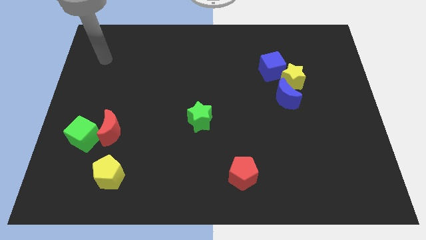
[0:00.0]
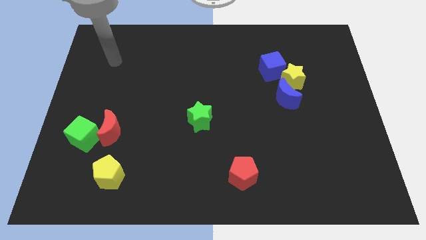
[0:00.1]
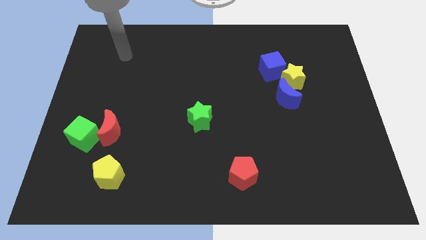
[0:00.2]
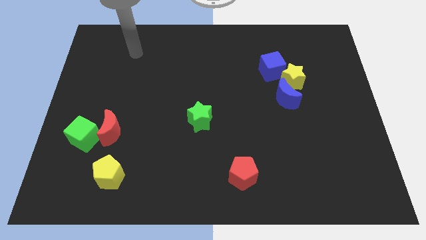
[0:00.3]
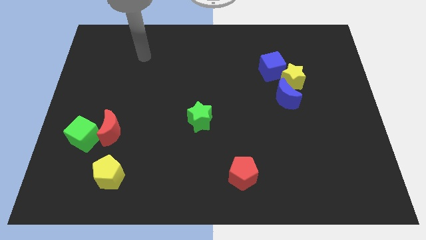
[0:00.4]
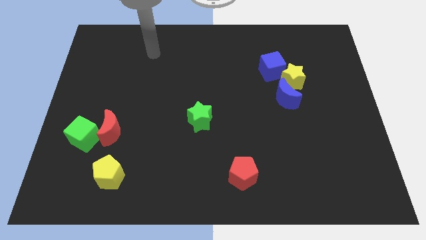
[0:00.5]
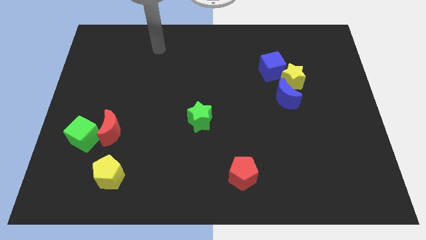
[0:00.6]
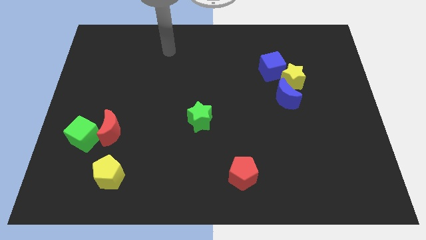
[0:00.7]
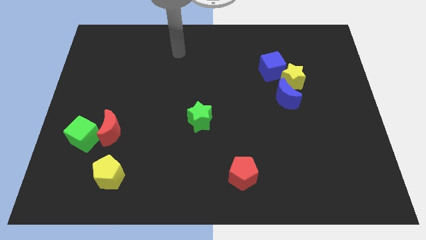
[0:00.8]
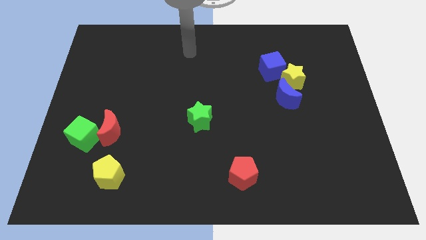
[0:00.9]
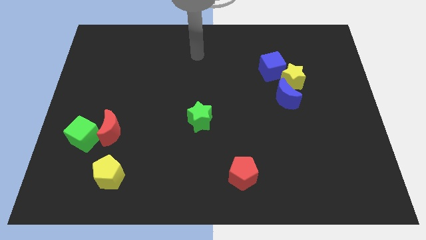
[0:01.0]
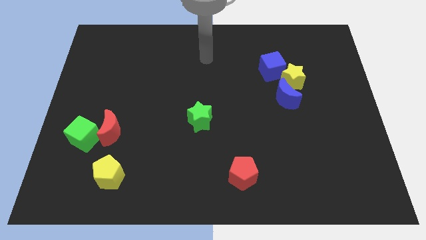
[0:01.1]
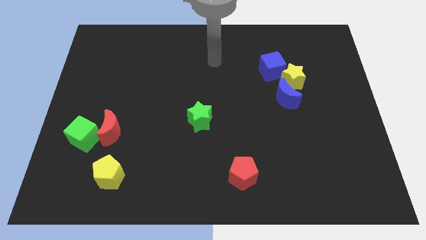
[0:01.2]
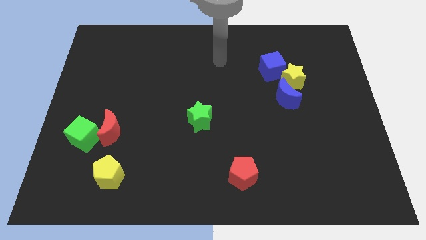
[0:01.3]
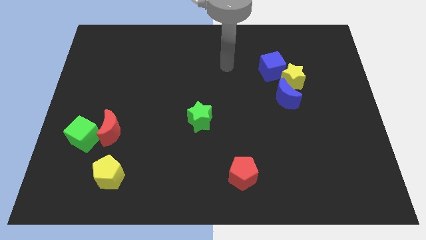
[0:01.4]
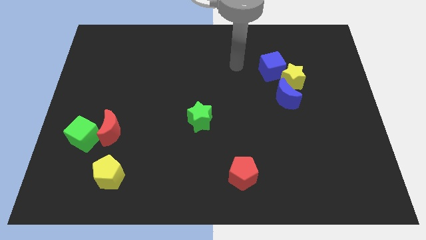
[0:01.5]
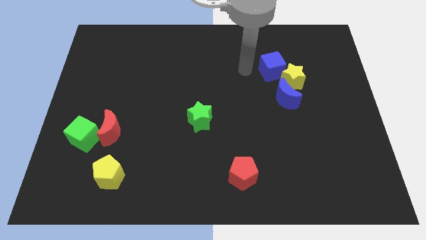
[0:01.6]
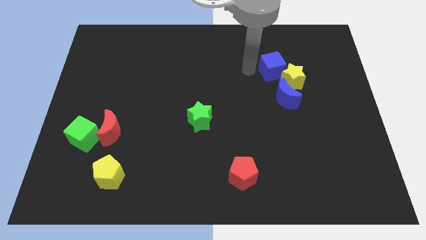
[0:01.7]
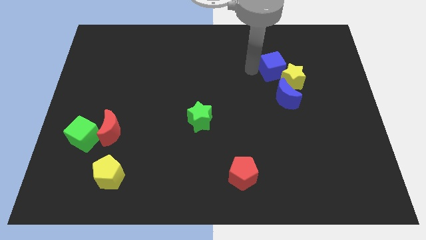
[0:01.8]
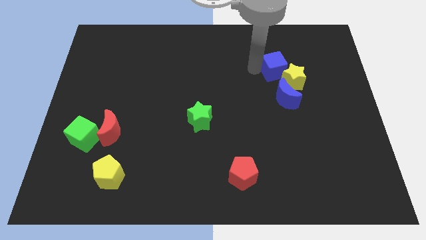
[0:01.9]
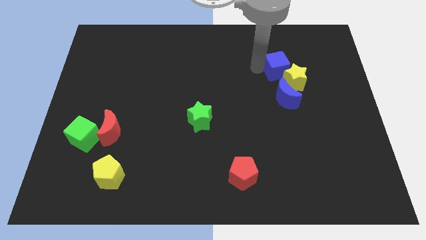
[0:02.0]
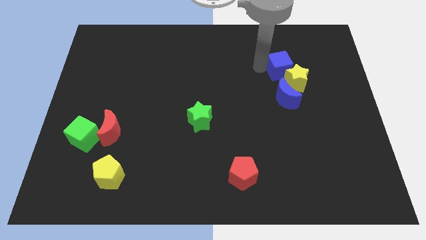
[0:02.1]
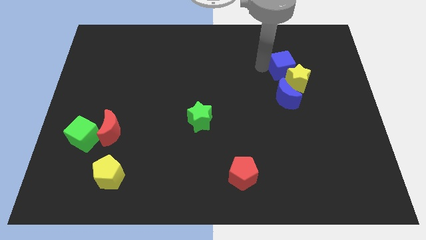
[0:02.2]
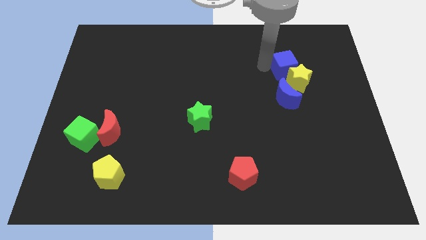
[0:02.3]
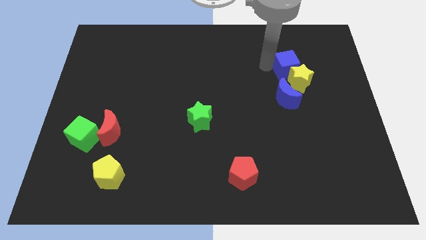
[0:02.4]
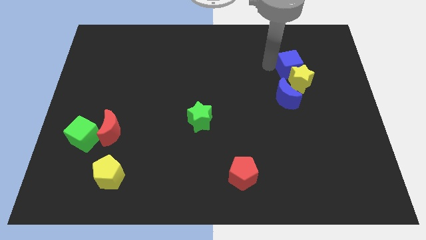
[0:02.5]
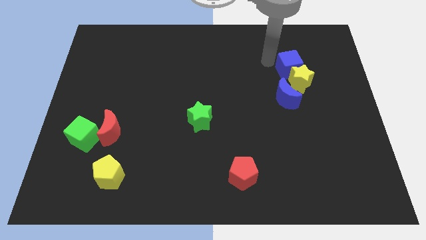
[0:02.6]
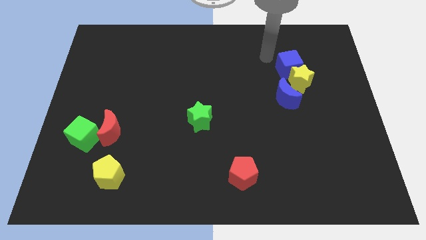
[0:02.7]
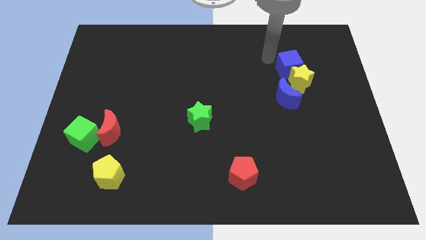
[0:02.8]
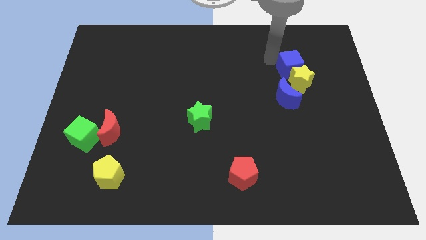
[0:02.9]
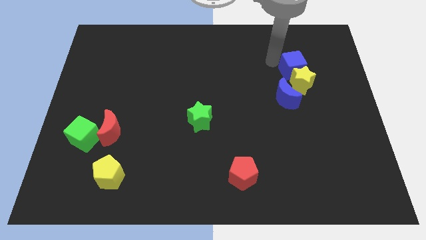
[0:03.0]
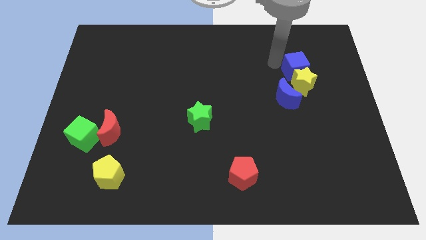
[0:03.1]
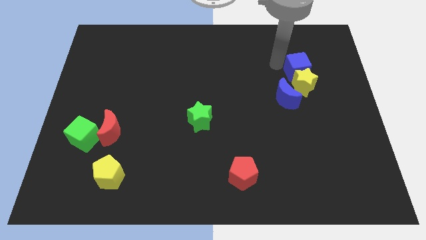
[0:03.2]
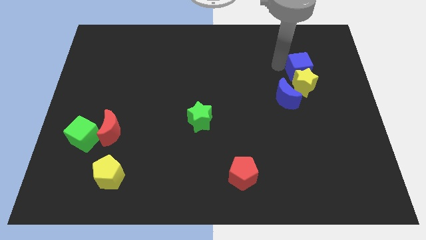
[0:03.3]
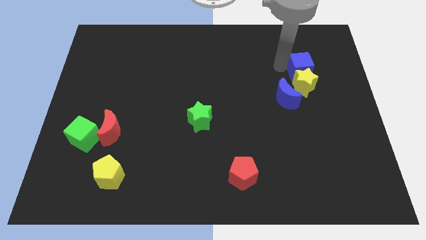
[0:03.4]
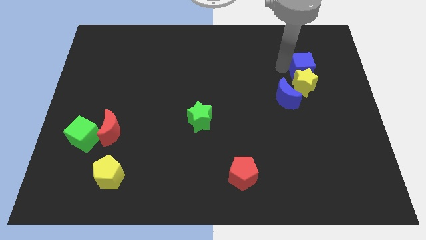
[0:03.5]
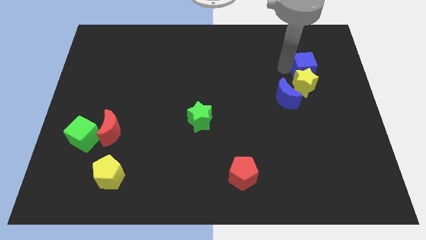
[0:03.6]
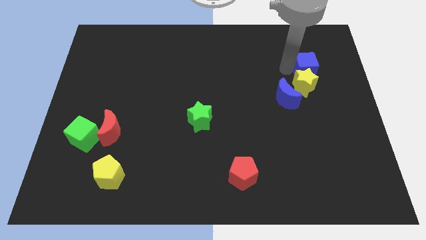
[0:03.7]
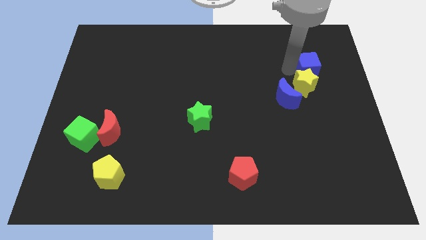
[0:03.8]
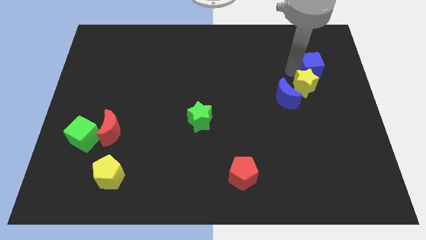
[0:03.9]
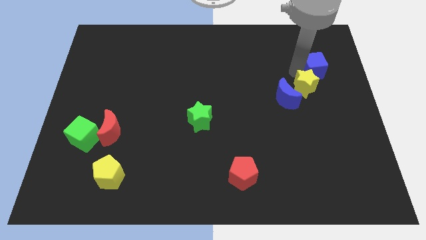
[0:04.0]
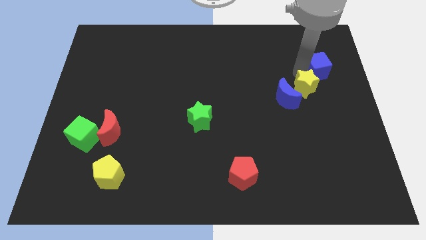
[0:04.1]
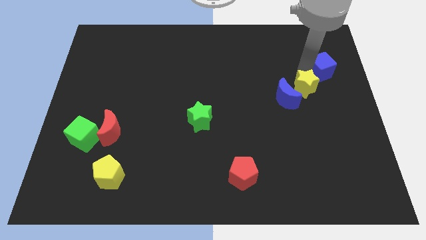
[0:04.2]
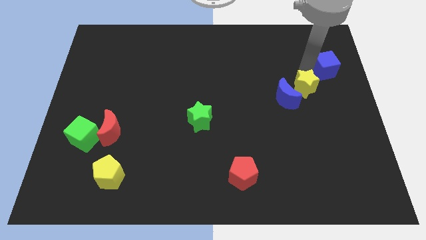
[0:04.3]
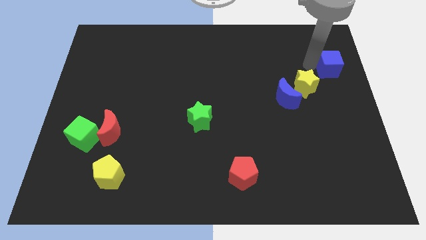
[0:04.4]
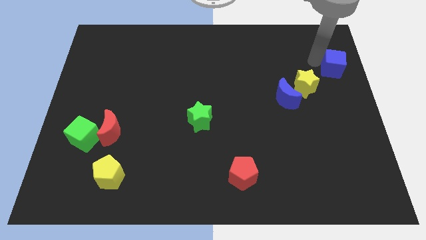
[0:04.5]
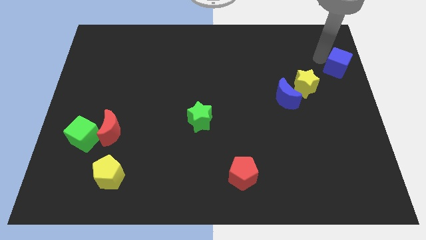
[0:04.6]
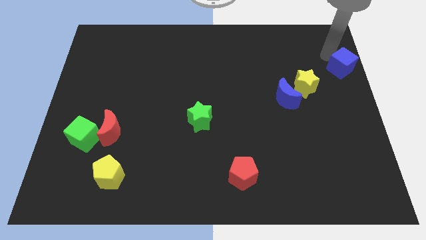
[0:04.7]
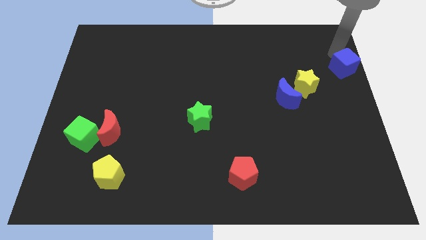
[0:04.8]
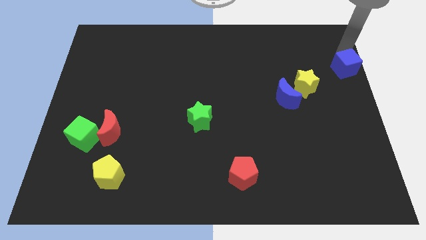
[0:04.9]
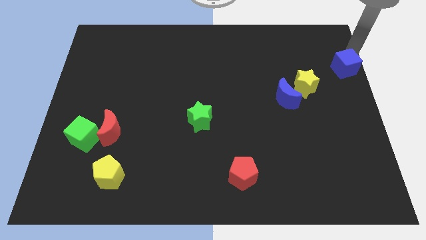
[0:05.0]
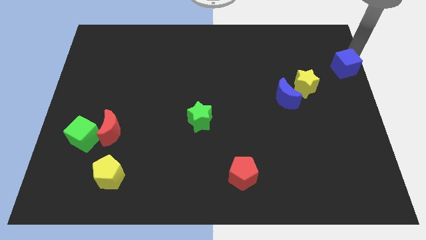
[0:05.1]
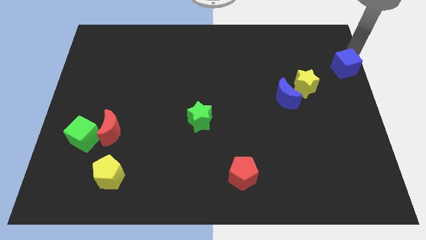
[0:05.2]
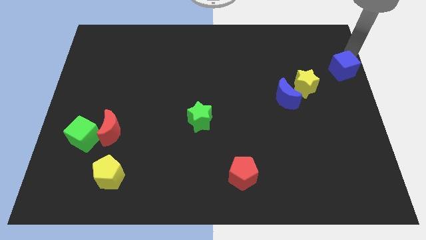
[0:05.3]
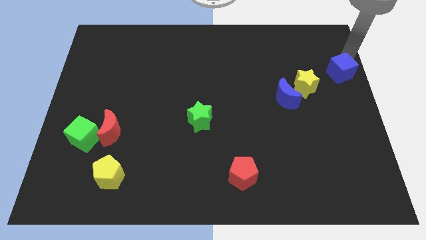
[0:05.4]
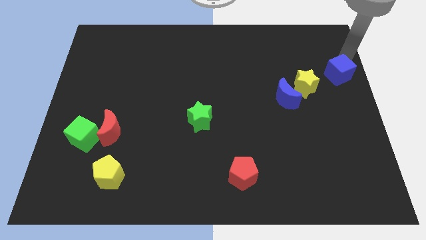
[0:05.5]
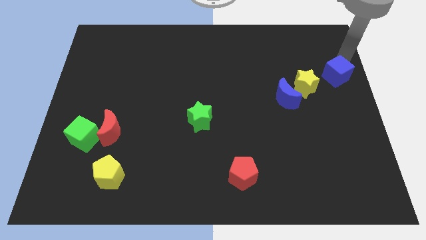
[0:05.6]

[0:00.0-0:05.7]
slide the blue cube a little downwards and right

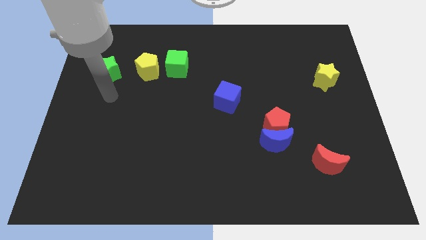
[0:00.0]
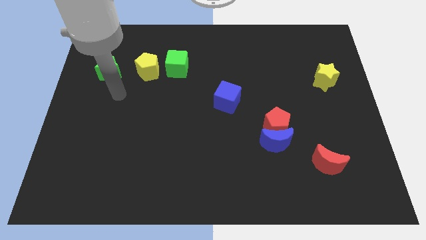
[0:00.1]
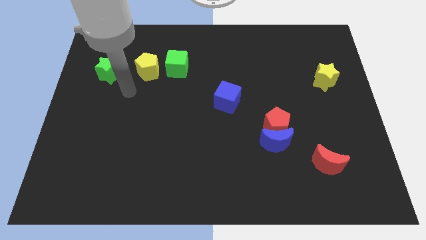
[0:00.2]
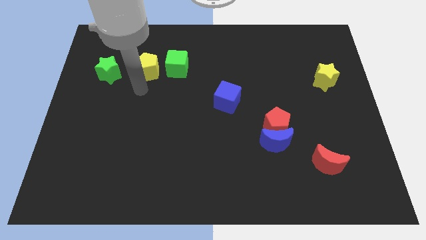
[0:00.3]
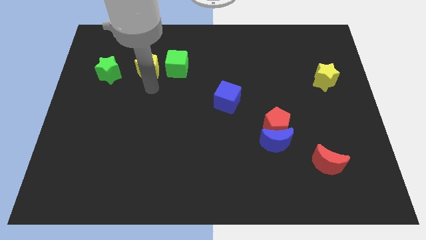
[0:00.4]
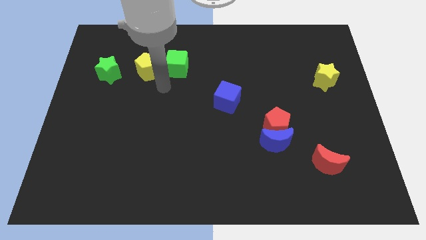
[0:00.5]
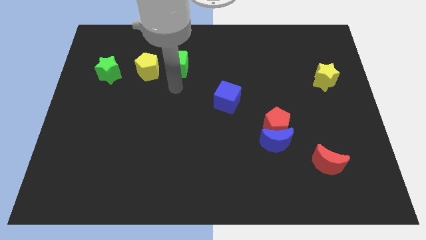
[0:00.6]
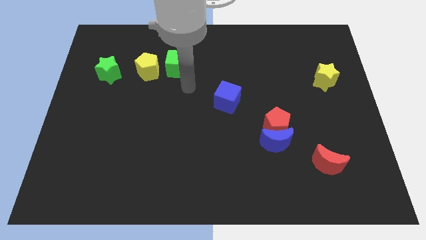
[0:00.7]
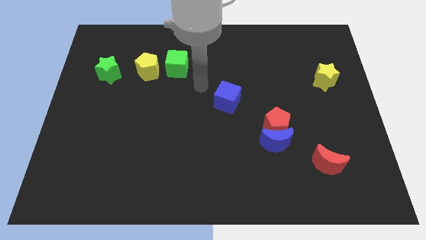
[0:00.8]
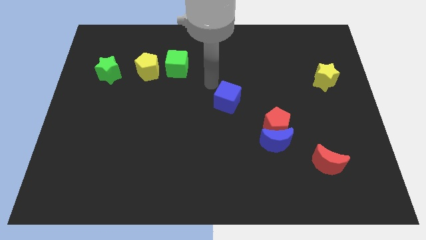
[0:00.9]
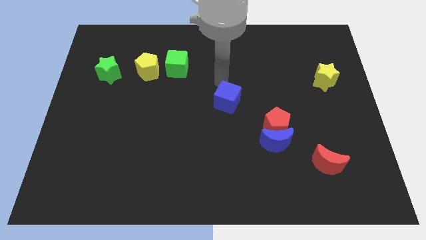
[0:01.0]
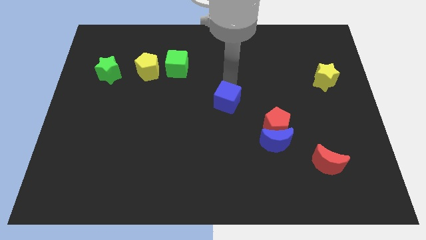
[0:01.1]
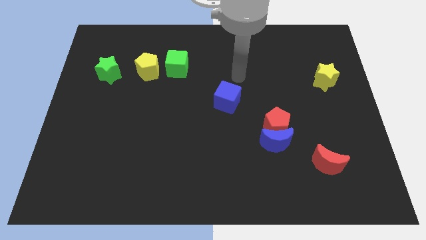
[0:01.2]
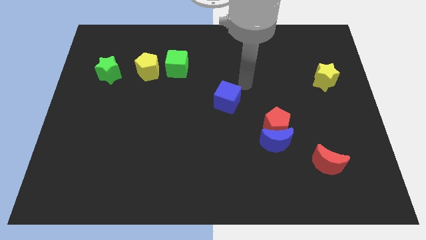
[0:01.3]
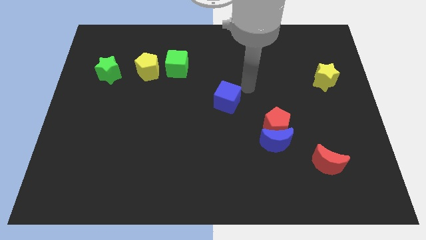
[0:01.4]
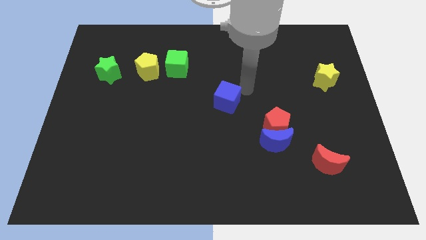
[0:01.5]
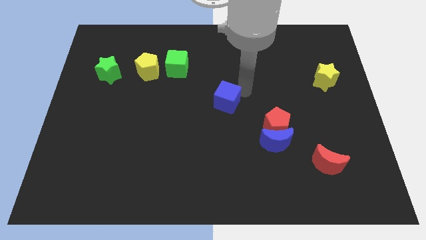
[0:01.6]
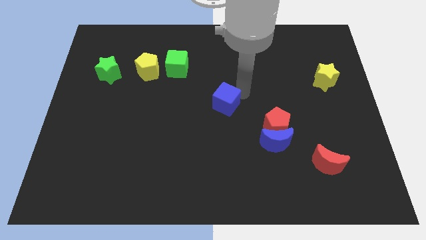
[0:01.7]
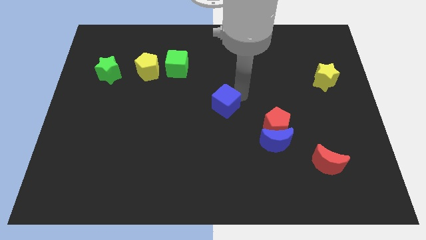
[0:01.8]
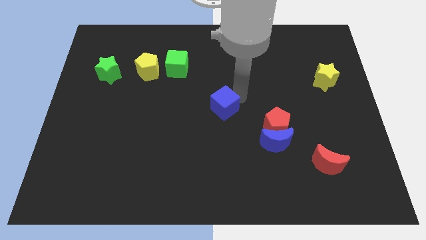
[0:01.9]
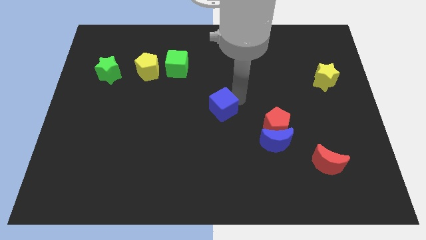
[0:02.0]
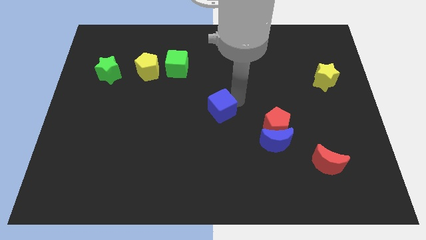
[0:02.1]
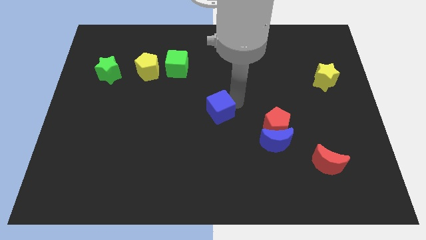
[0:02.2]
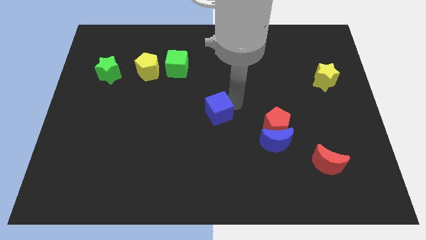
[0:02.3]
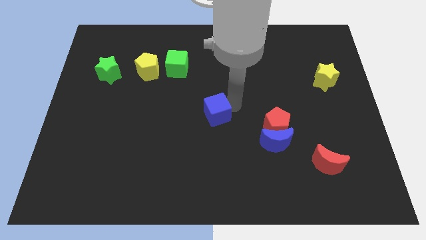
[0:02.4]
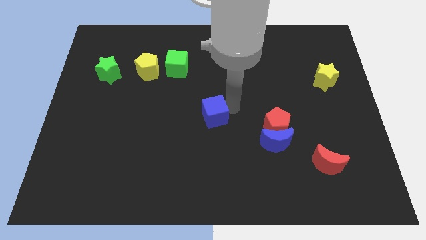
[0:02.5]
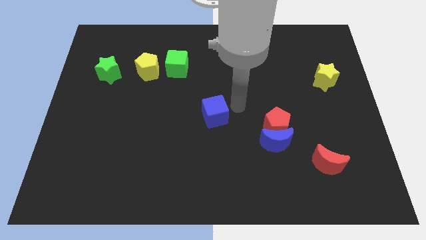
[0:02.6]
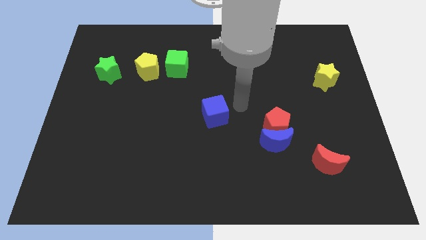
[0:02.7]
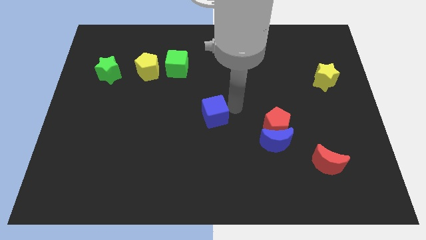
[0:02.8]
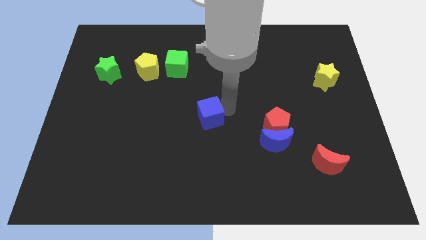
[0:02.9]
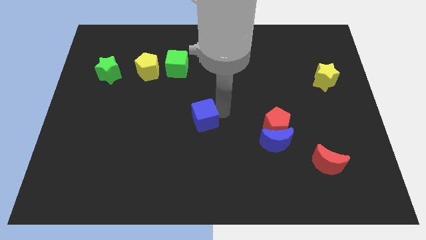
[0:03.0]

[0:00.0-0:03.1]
slightly move the blue cube downwards and to the left
